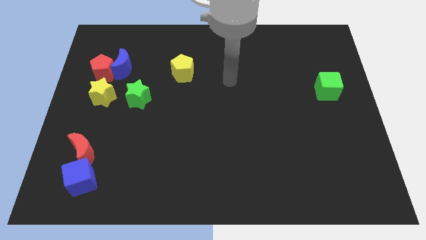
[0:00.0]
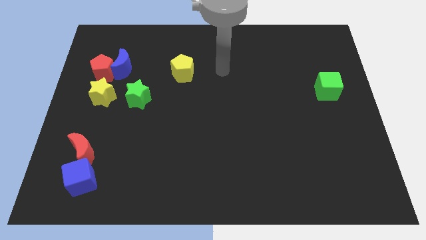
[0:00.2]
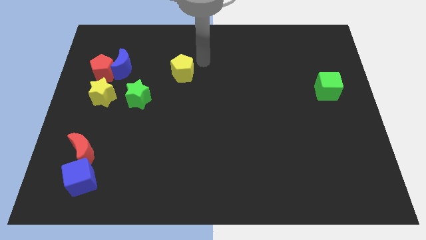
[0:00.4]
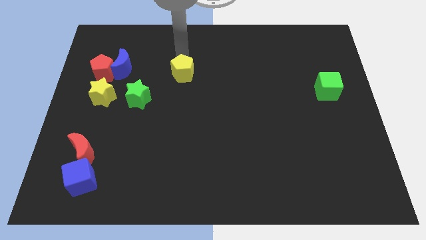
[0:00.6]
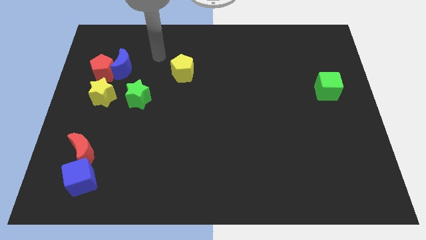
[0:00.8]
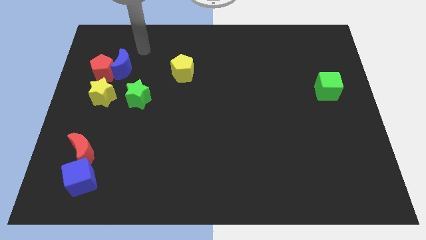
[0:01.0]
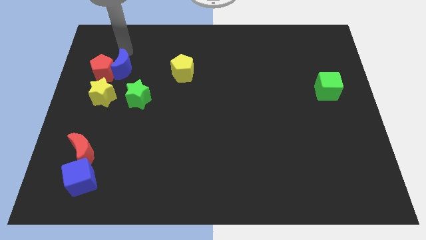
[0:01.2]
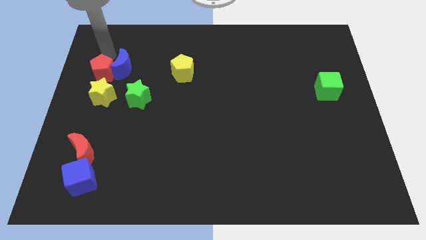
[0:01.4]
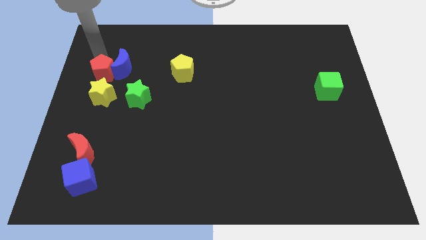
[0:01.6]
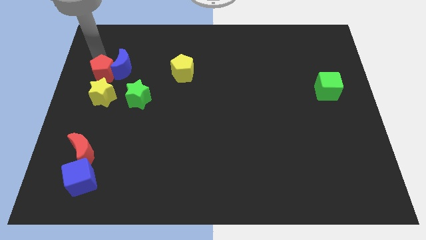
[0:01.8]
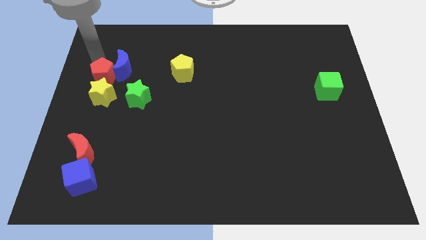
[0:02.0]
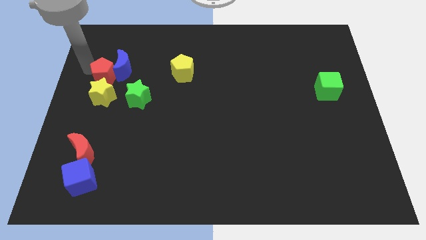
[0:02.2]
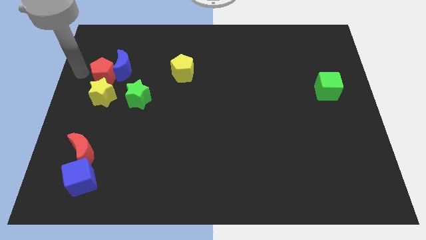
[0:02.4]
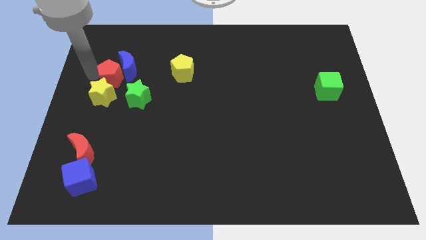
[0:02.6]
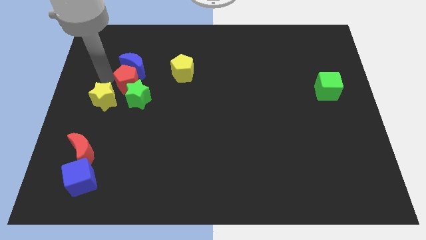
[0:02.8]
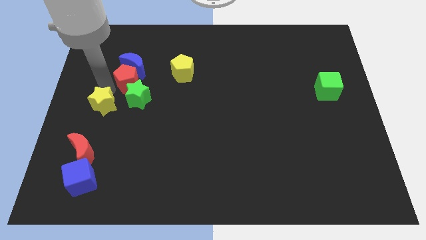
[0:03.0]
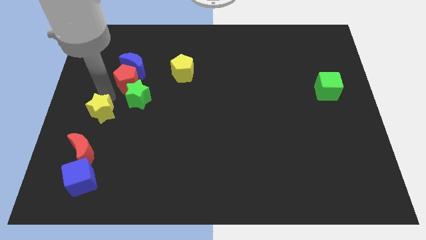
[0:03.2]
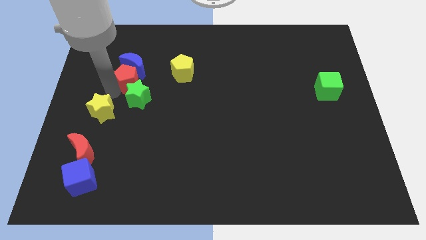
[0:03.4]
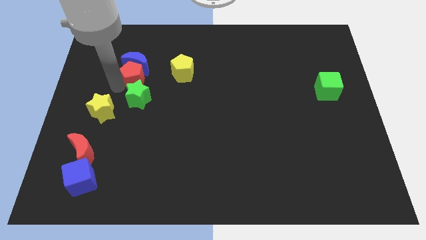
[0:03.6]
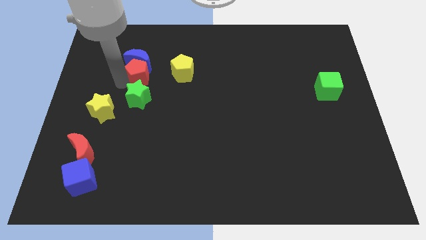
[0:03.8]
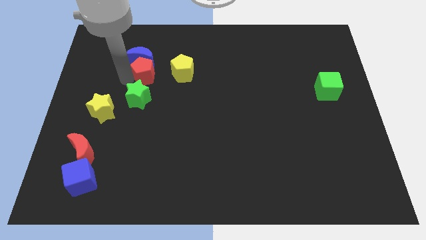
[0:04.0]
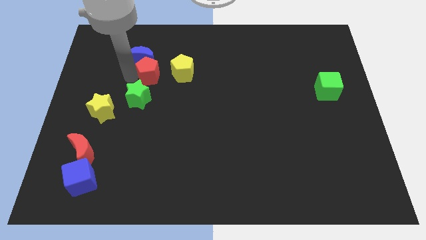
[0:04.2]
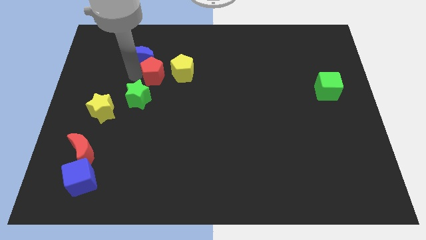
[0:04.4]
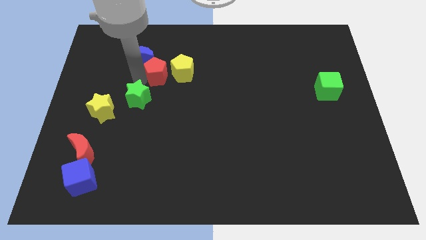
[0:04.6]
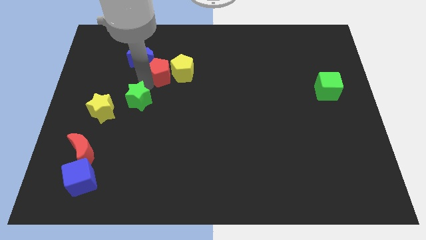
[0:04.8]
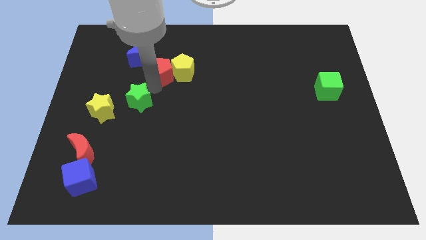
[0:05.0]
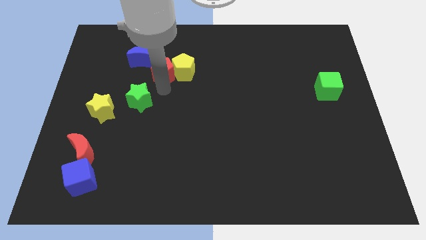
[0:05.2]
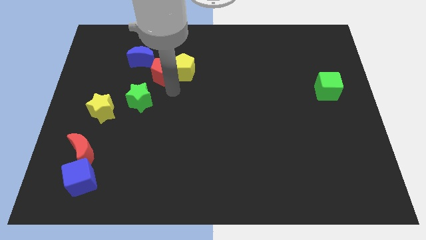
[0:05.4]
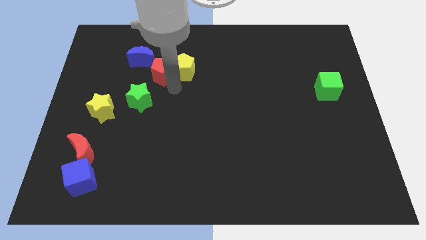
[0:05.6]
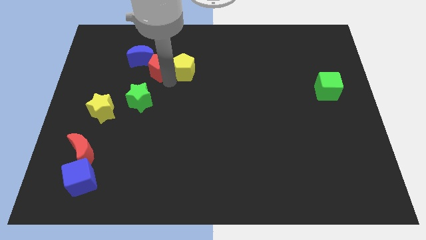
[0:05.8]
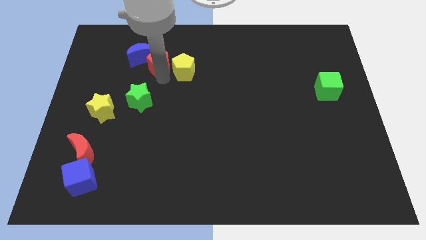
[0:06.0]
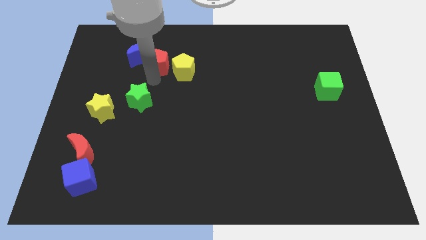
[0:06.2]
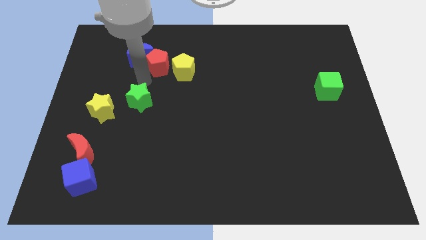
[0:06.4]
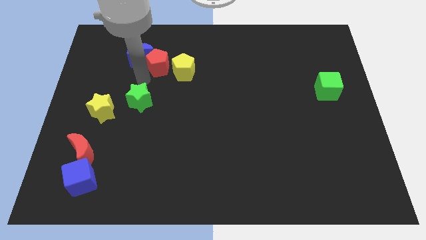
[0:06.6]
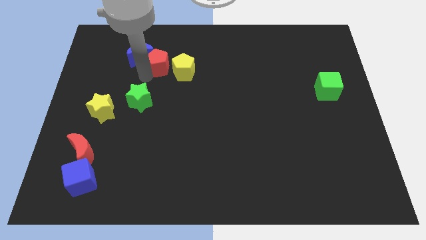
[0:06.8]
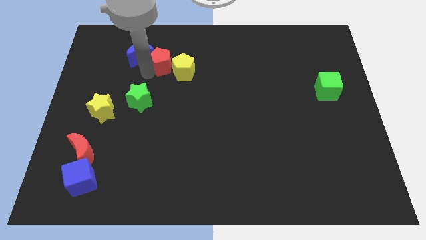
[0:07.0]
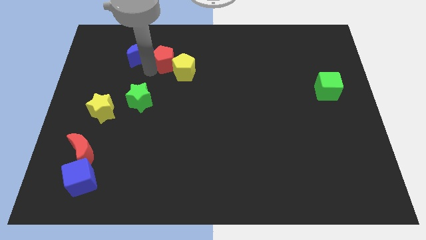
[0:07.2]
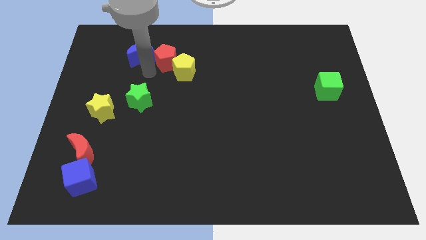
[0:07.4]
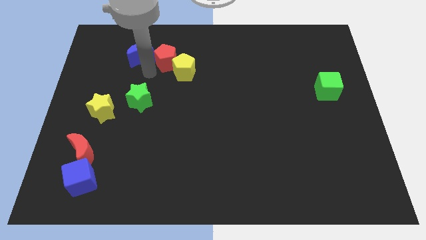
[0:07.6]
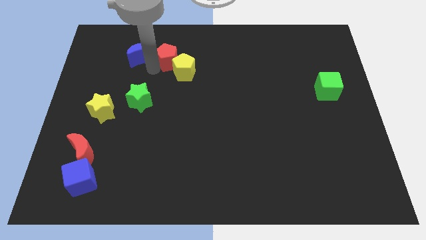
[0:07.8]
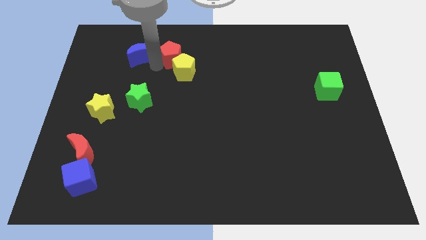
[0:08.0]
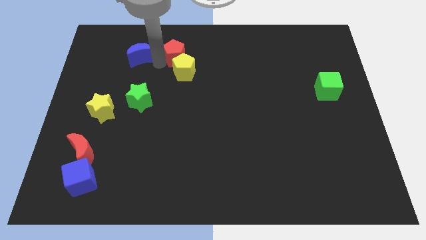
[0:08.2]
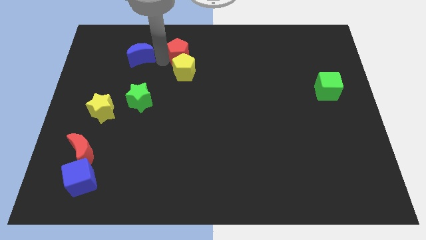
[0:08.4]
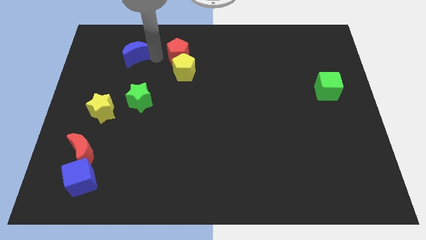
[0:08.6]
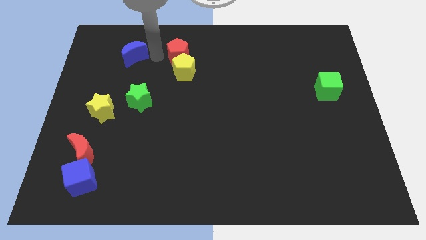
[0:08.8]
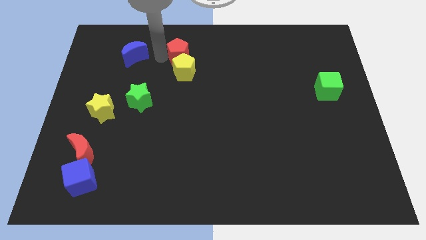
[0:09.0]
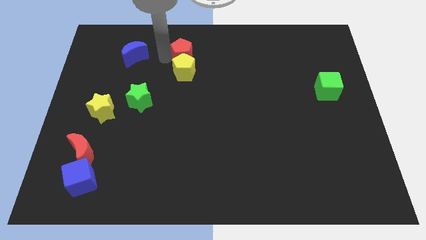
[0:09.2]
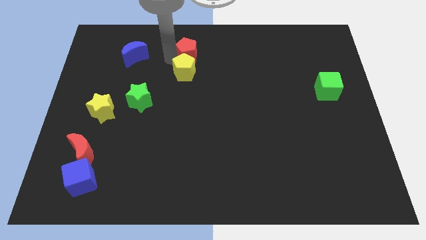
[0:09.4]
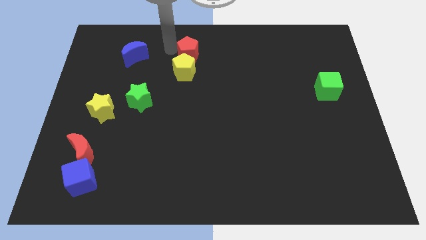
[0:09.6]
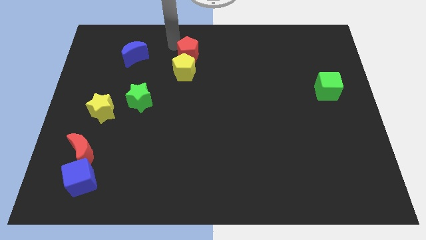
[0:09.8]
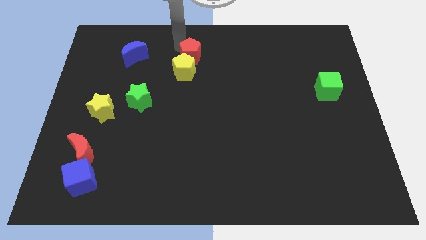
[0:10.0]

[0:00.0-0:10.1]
push the red pentagon right

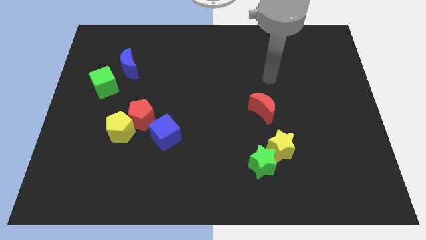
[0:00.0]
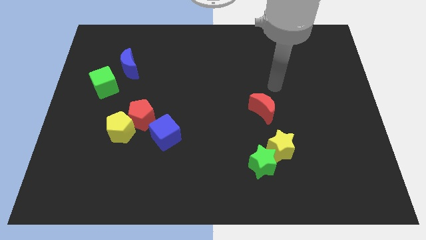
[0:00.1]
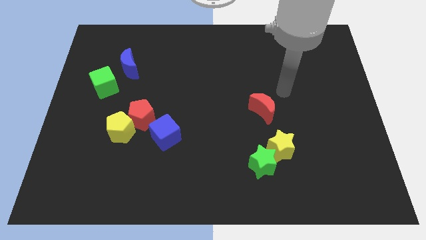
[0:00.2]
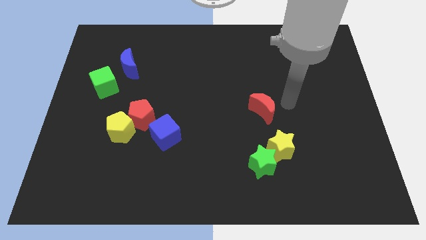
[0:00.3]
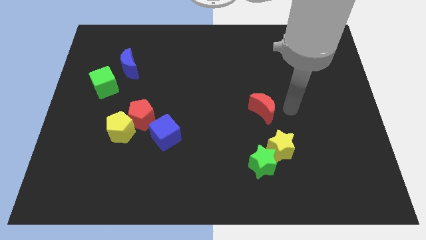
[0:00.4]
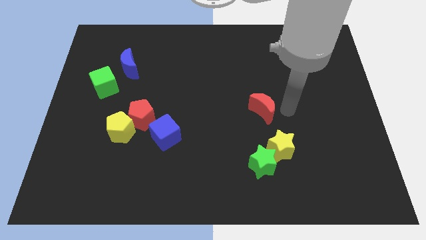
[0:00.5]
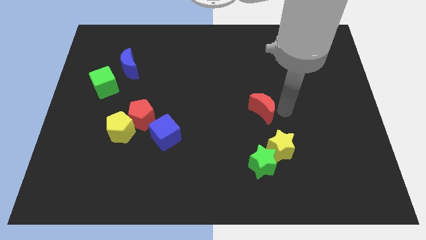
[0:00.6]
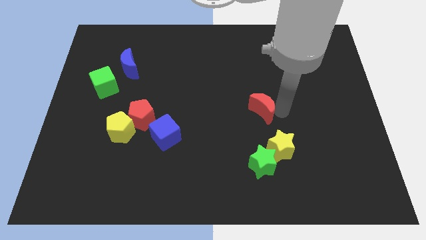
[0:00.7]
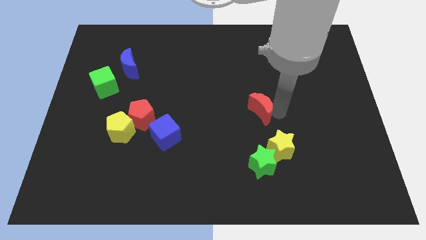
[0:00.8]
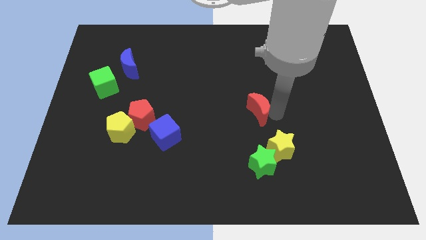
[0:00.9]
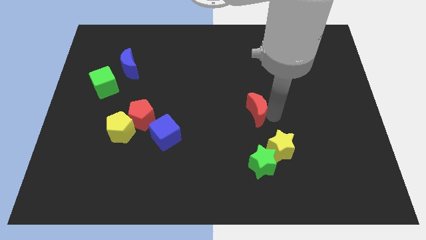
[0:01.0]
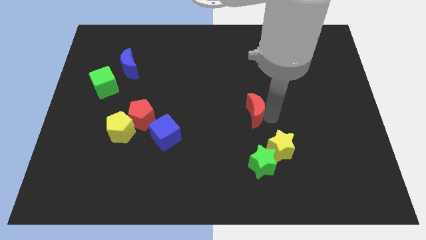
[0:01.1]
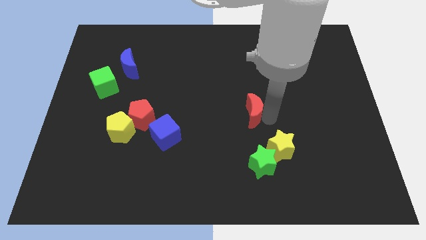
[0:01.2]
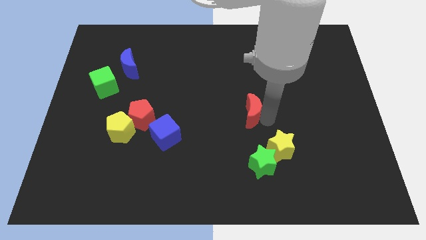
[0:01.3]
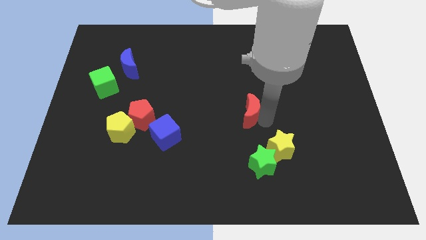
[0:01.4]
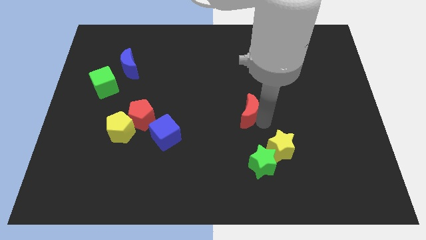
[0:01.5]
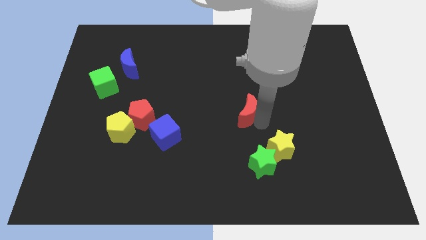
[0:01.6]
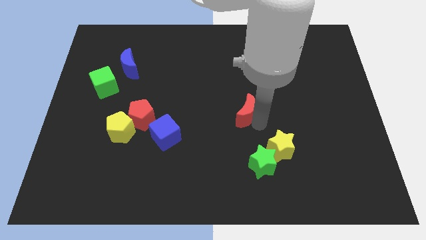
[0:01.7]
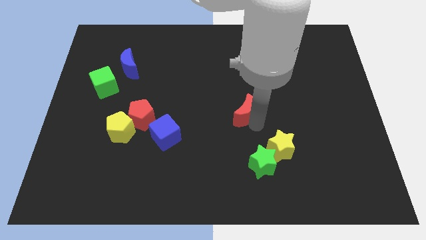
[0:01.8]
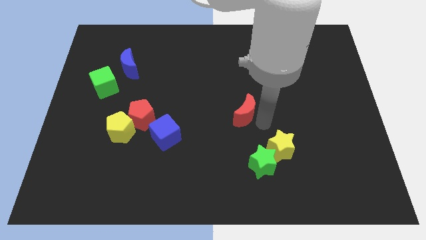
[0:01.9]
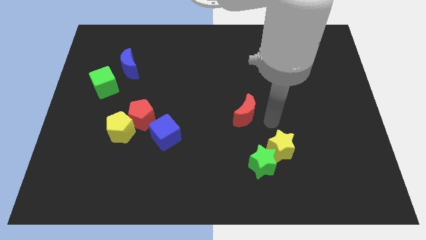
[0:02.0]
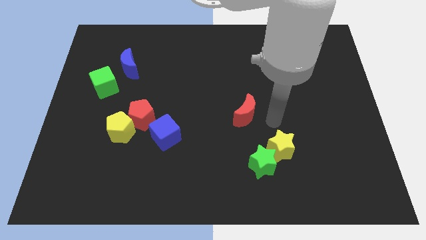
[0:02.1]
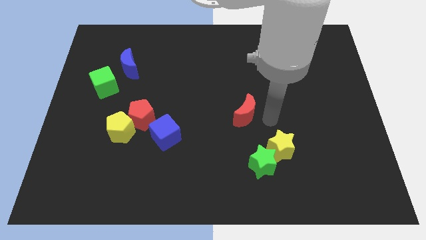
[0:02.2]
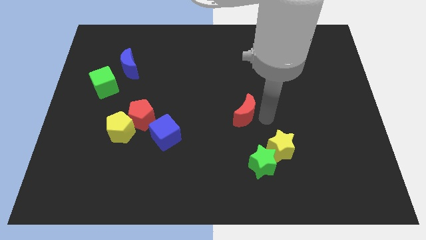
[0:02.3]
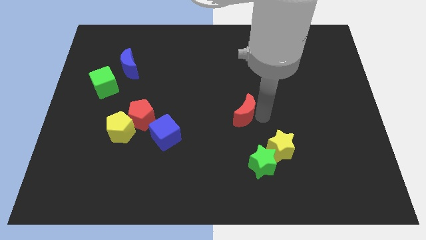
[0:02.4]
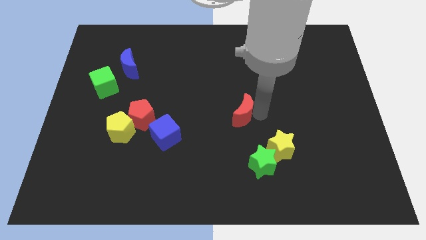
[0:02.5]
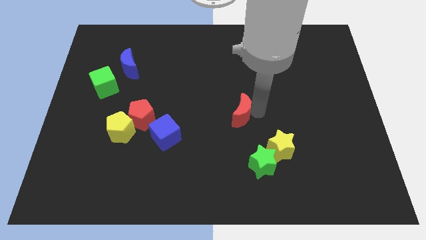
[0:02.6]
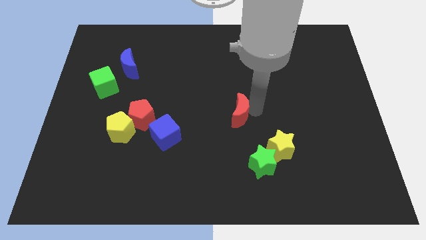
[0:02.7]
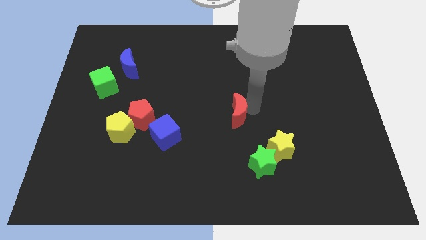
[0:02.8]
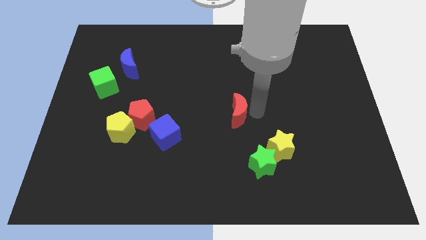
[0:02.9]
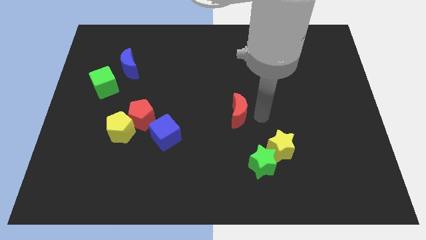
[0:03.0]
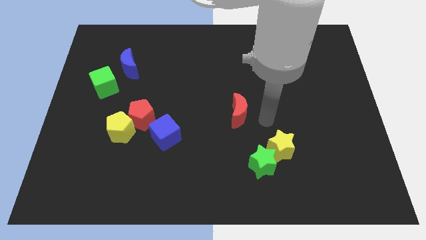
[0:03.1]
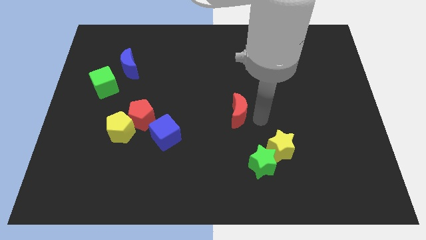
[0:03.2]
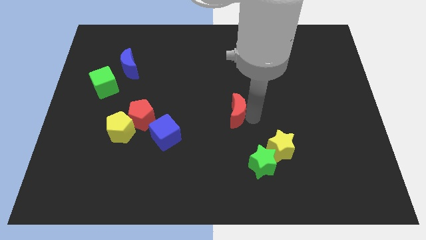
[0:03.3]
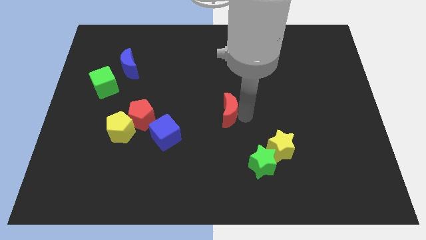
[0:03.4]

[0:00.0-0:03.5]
slightly push the red moon to the left
